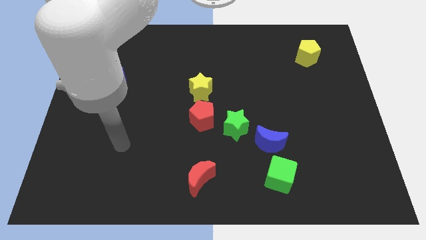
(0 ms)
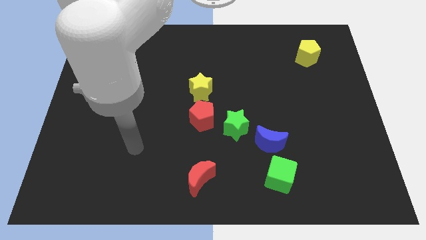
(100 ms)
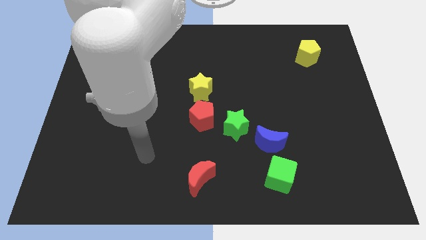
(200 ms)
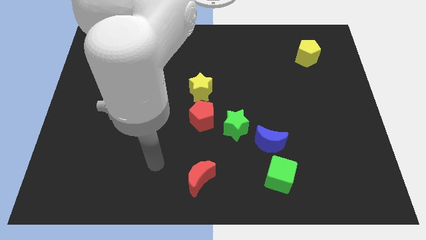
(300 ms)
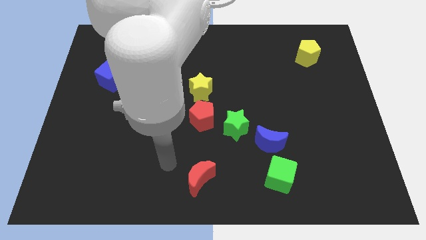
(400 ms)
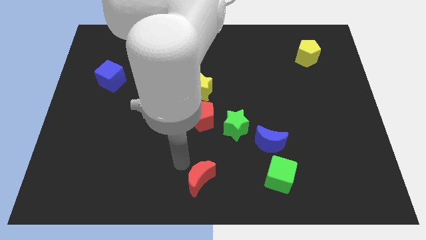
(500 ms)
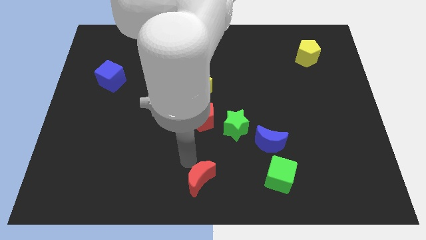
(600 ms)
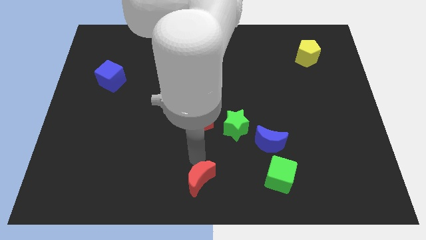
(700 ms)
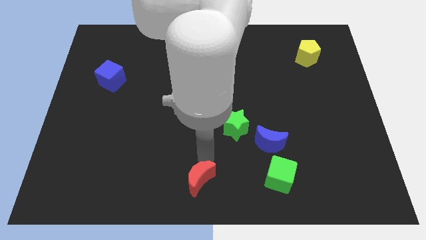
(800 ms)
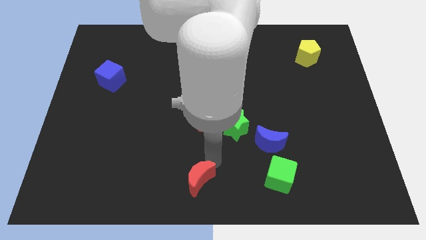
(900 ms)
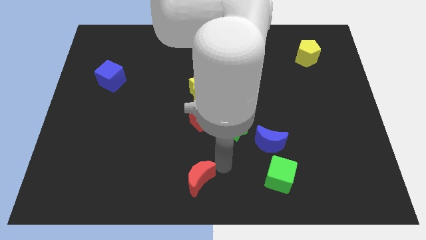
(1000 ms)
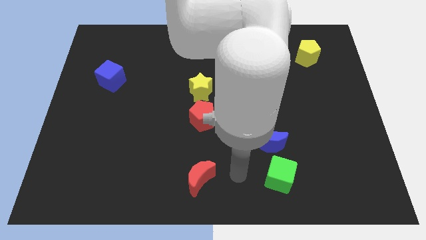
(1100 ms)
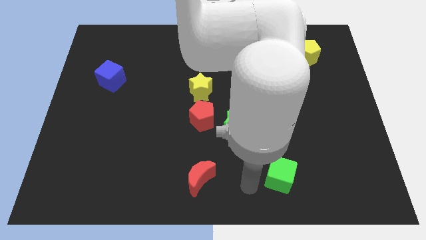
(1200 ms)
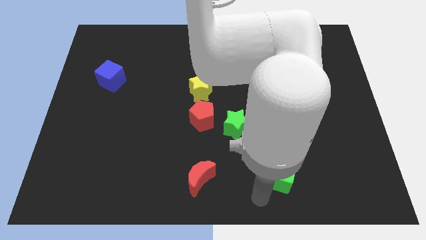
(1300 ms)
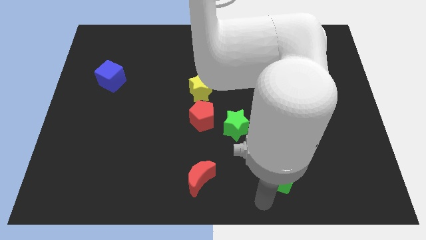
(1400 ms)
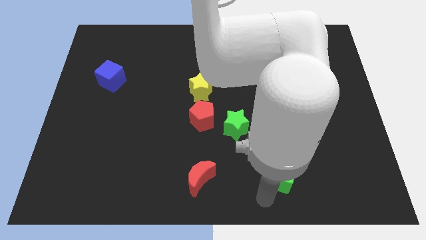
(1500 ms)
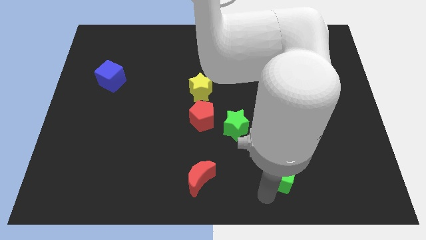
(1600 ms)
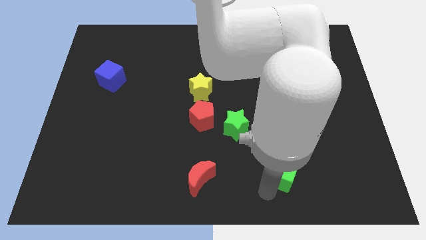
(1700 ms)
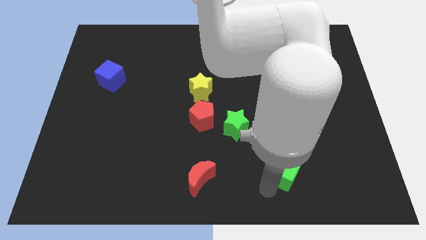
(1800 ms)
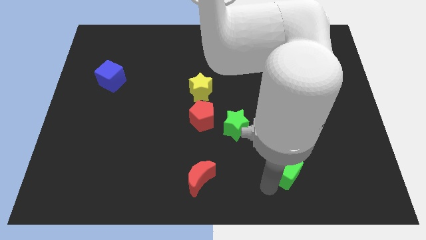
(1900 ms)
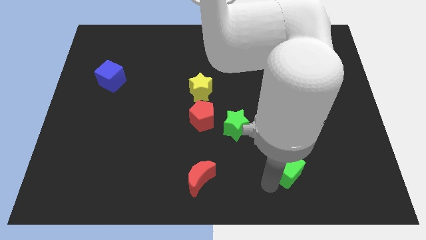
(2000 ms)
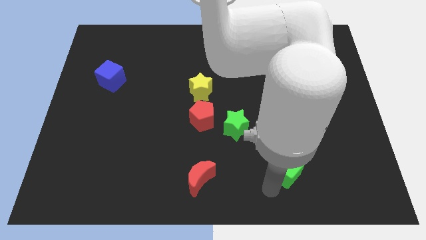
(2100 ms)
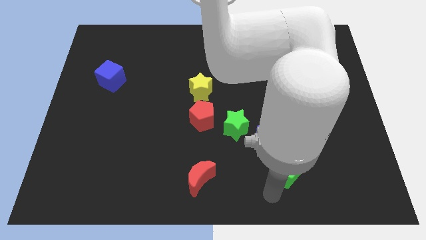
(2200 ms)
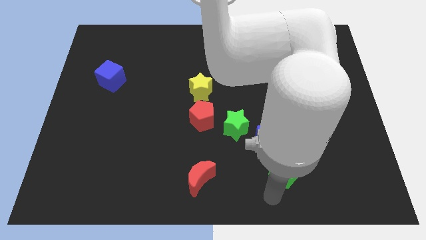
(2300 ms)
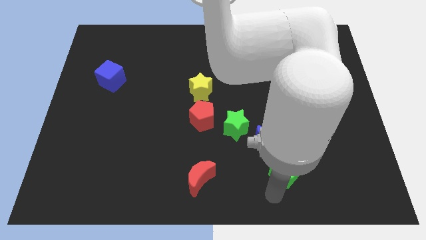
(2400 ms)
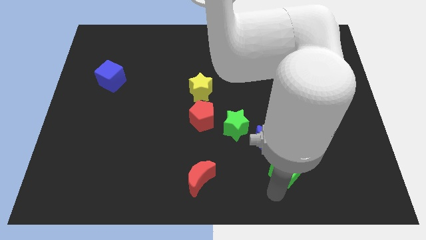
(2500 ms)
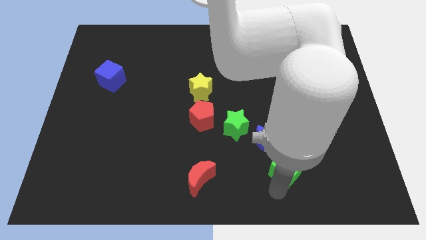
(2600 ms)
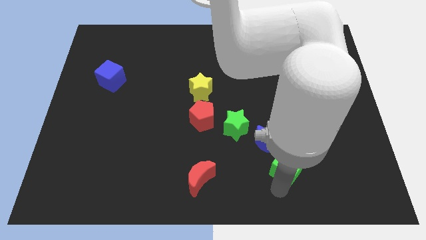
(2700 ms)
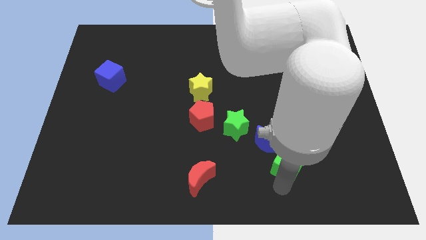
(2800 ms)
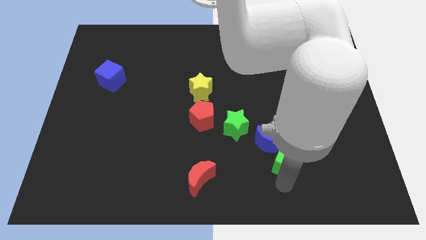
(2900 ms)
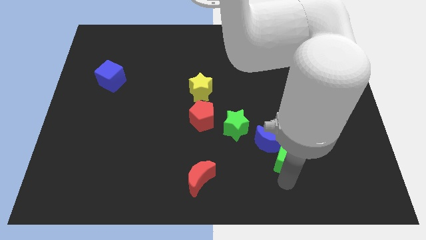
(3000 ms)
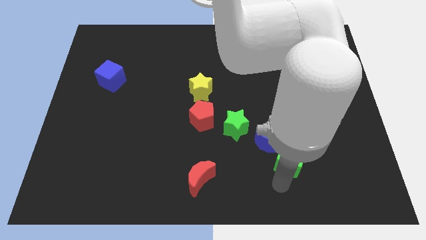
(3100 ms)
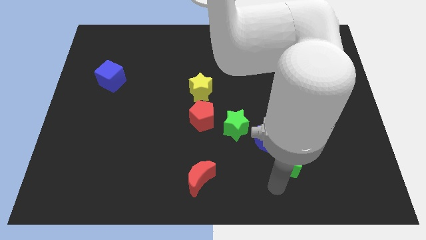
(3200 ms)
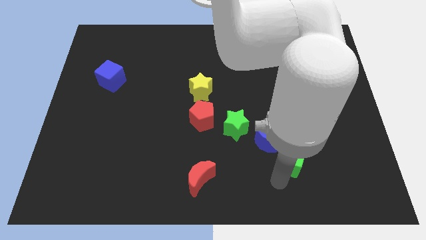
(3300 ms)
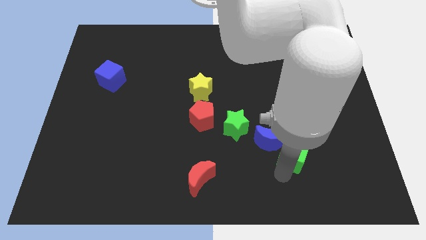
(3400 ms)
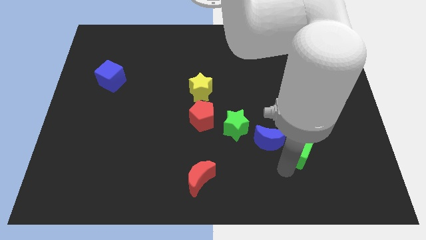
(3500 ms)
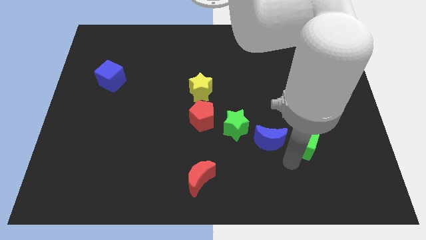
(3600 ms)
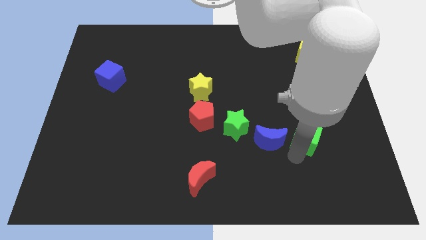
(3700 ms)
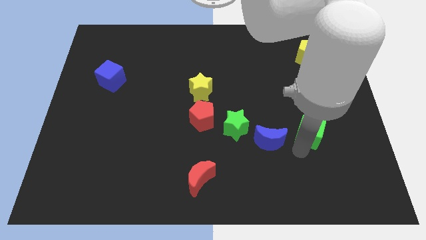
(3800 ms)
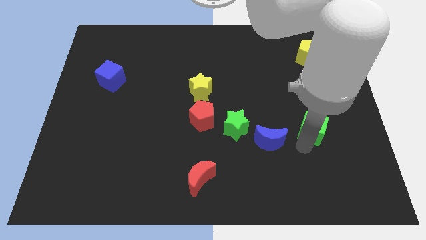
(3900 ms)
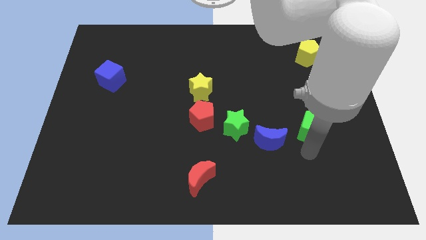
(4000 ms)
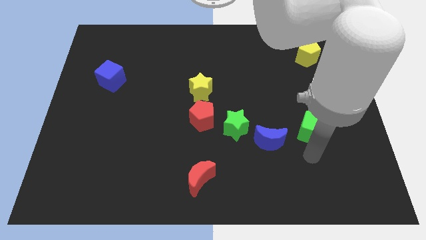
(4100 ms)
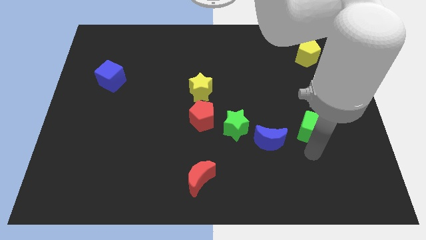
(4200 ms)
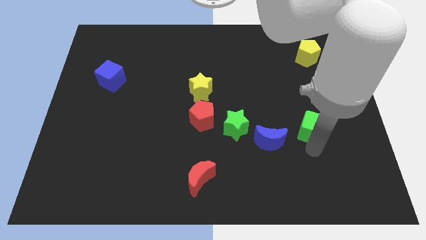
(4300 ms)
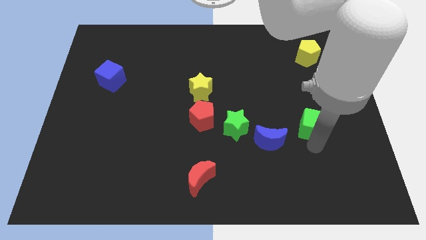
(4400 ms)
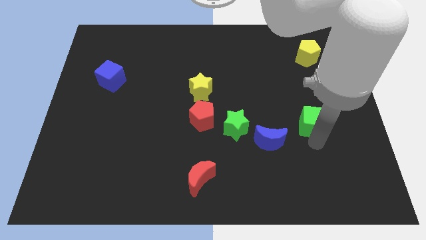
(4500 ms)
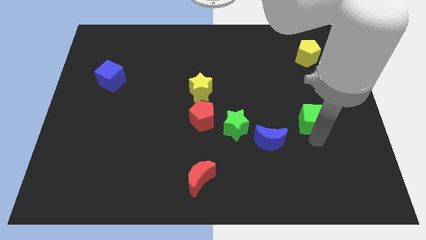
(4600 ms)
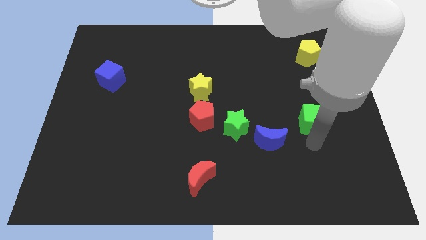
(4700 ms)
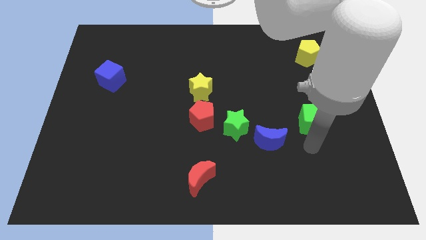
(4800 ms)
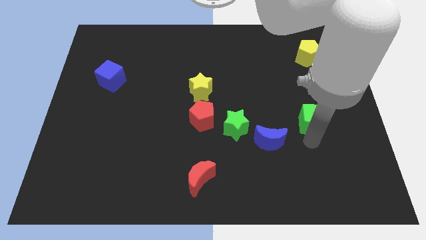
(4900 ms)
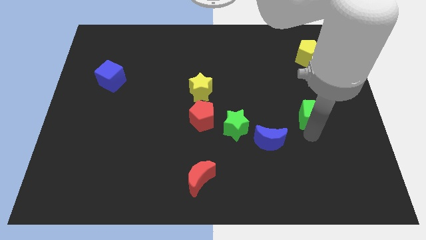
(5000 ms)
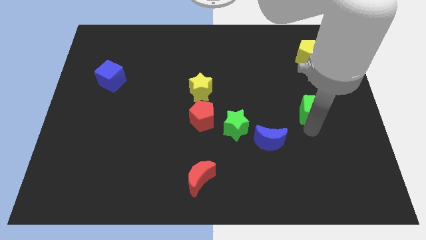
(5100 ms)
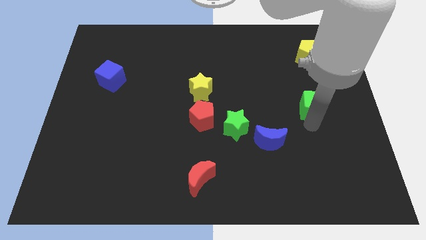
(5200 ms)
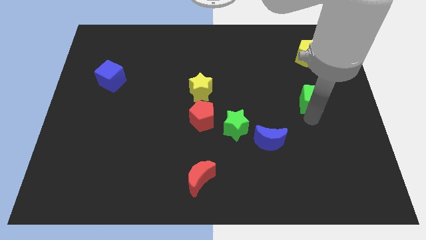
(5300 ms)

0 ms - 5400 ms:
put the green cube below the yellow pentagon

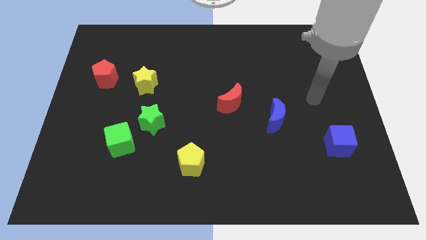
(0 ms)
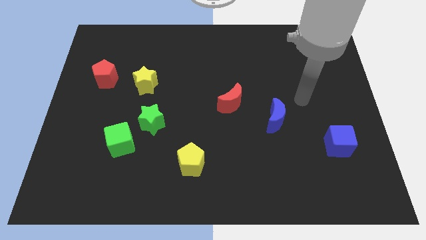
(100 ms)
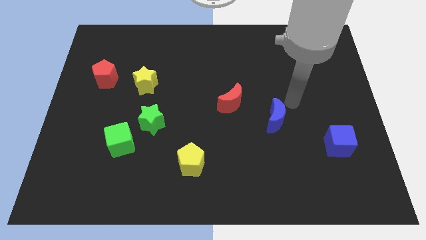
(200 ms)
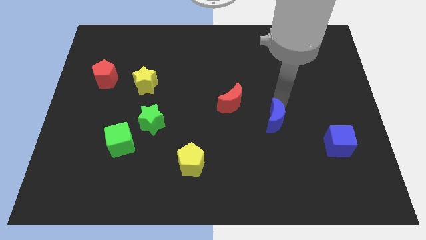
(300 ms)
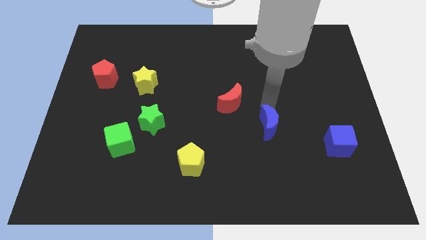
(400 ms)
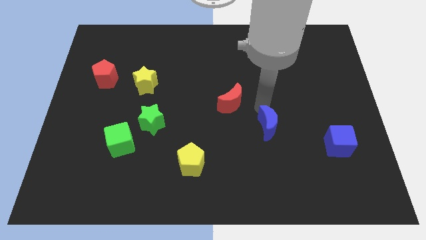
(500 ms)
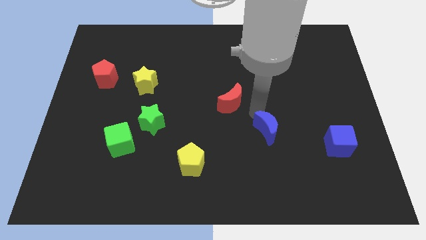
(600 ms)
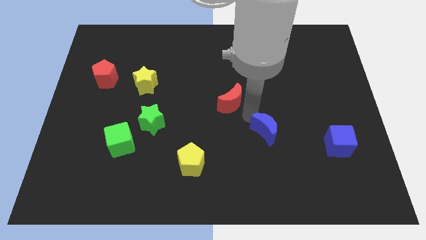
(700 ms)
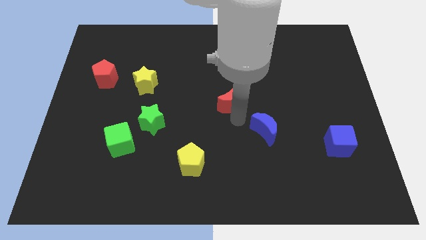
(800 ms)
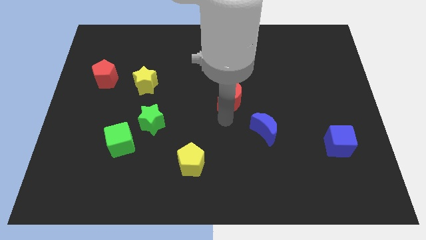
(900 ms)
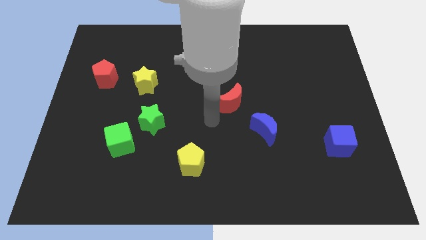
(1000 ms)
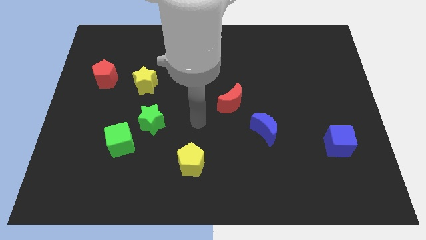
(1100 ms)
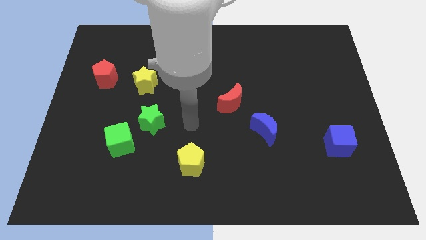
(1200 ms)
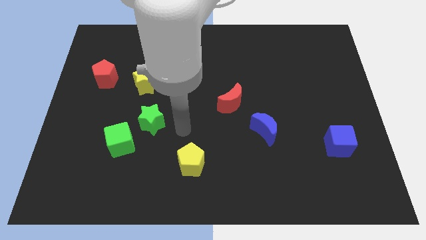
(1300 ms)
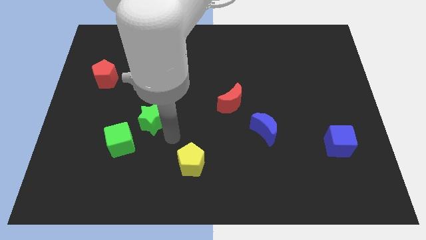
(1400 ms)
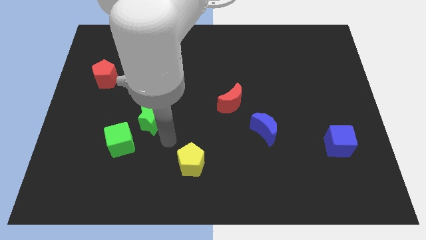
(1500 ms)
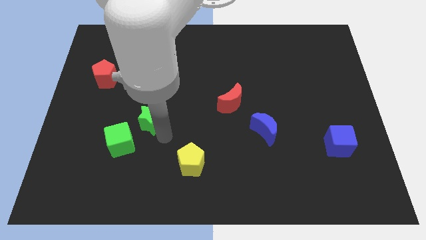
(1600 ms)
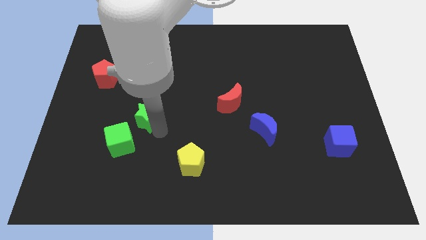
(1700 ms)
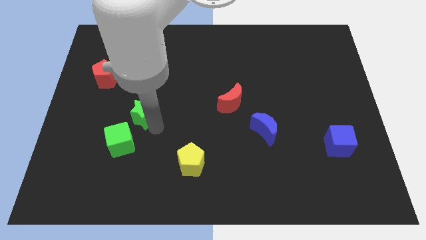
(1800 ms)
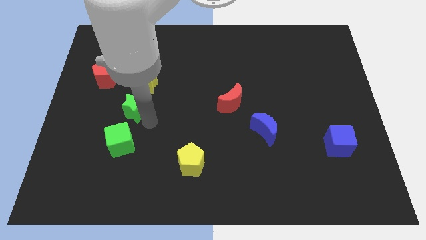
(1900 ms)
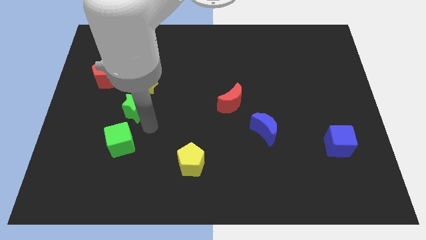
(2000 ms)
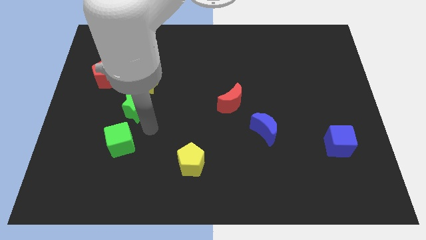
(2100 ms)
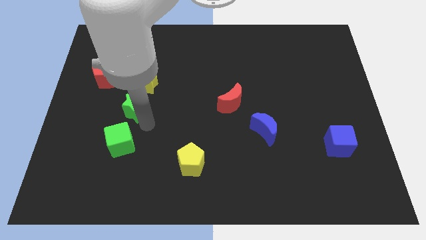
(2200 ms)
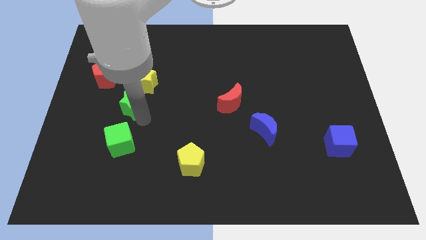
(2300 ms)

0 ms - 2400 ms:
put the green star diagonally down and to the right of the red pentagon
